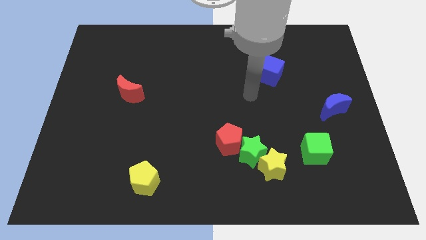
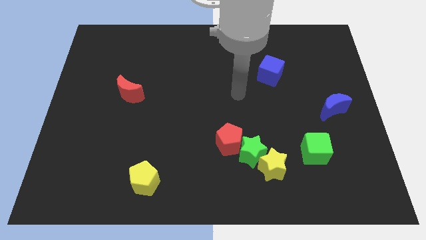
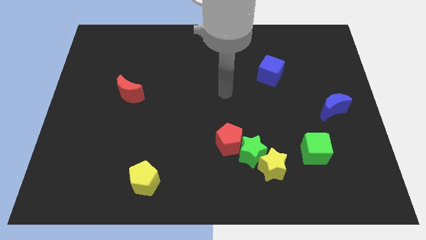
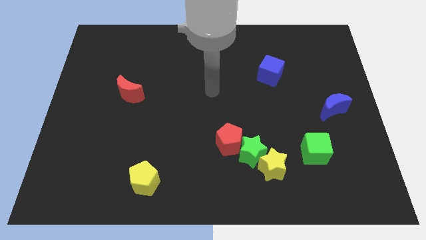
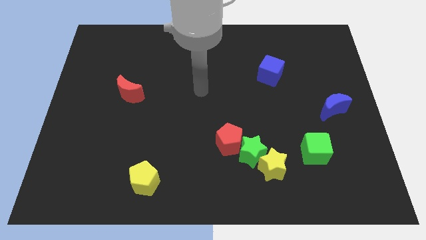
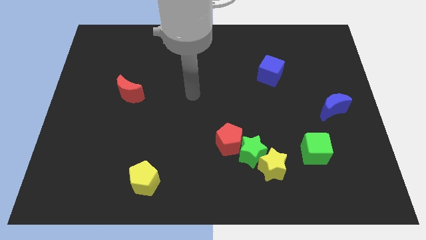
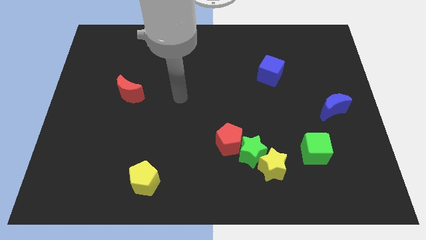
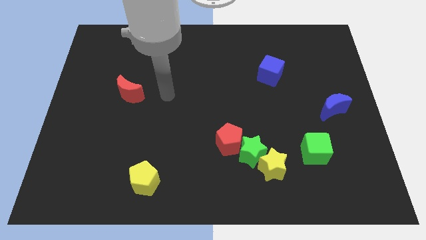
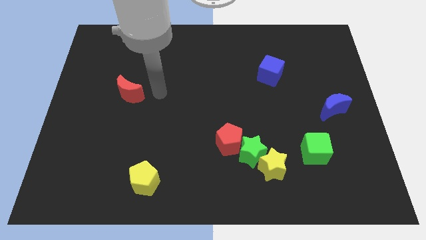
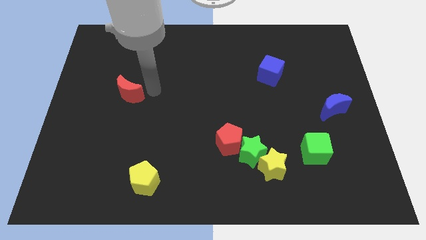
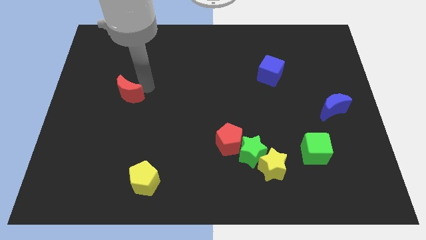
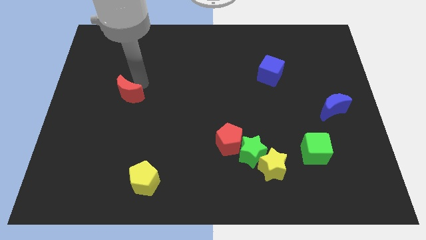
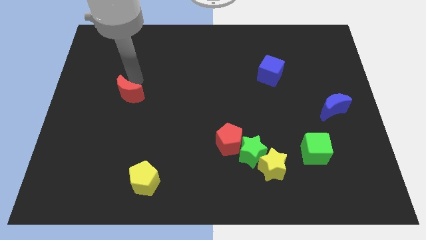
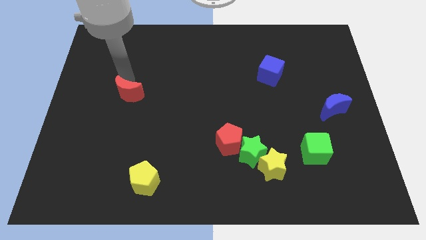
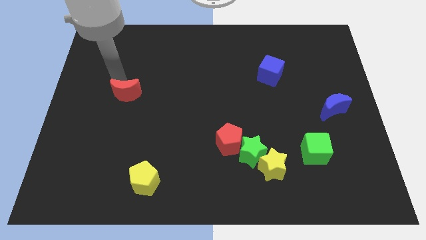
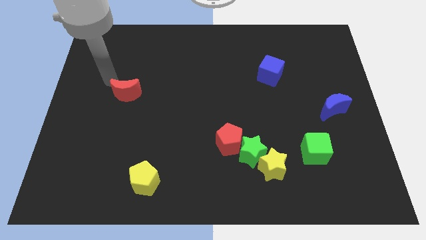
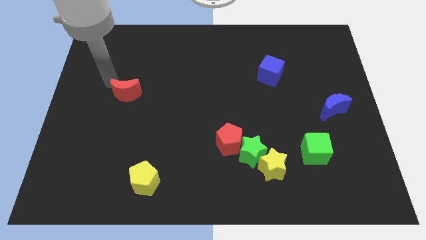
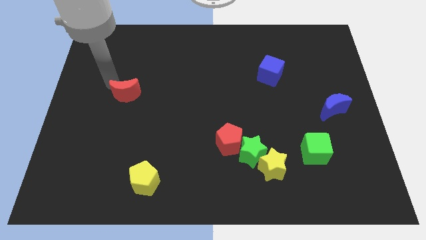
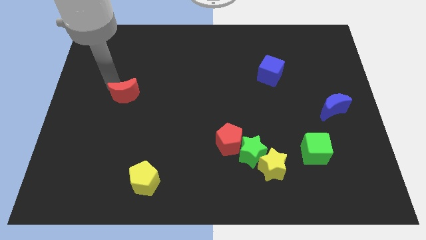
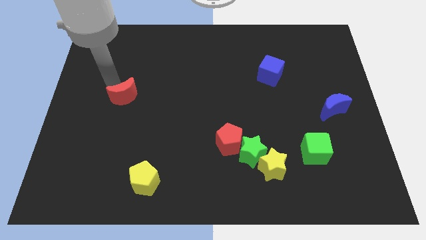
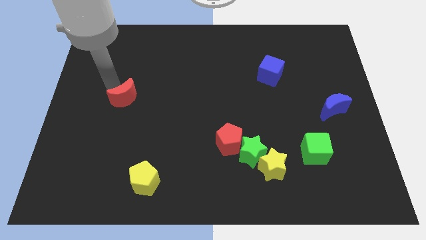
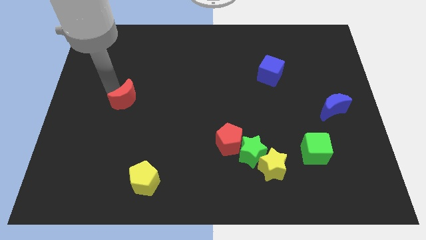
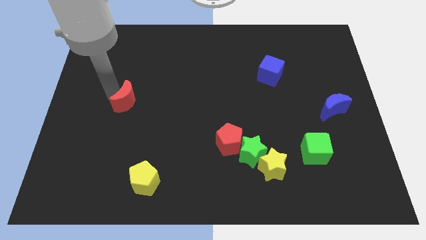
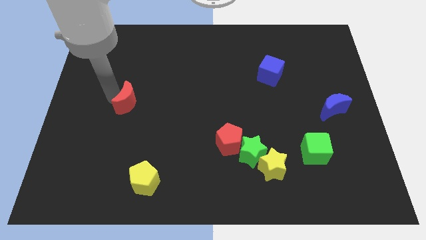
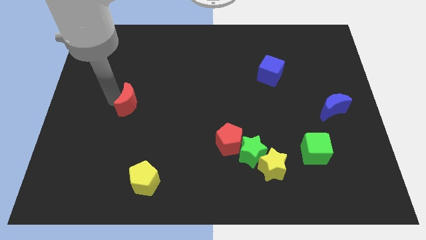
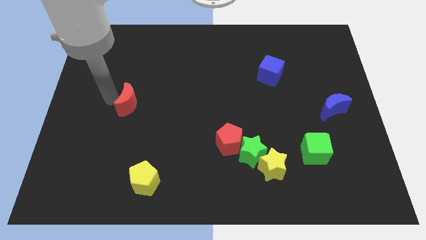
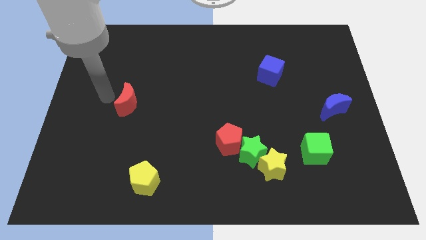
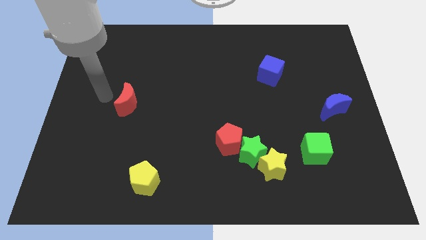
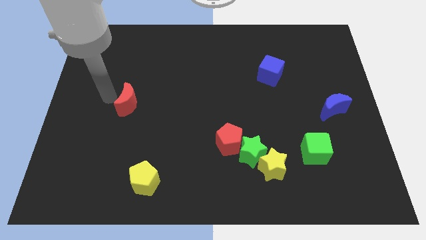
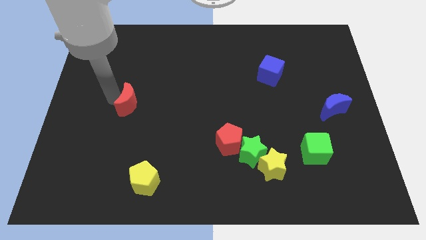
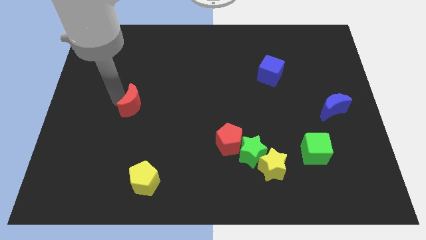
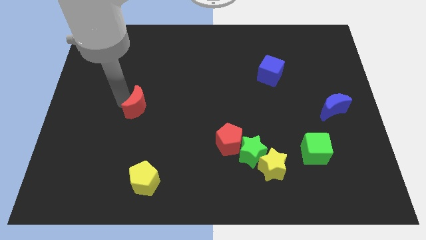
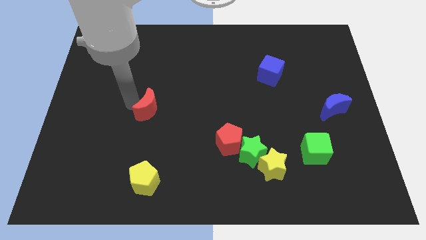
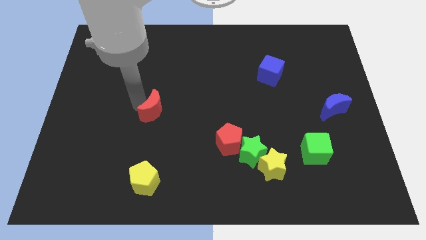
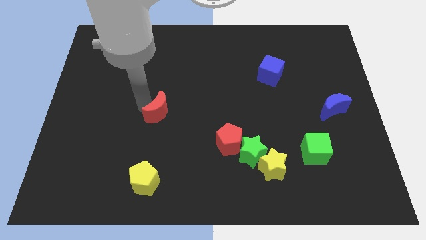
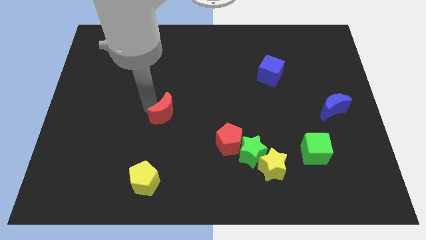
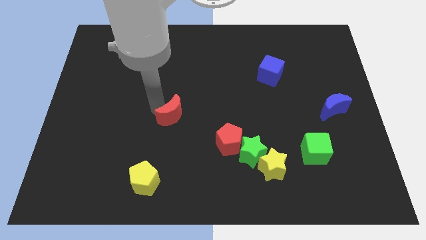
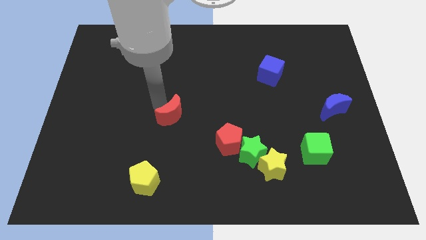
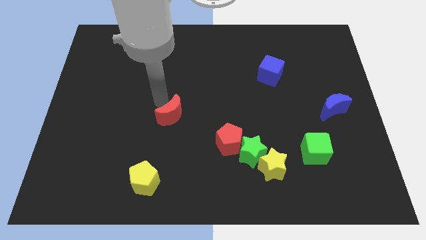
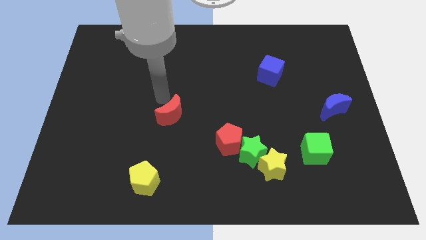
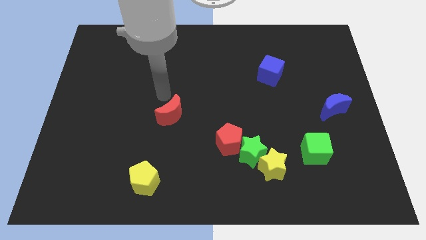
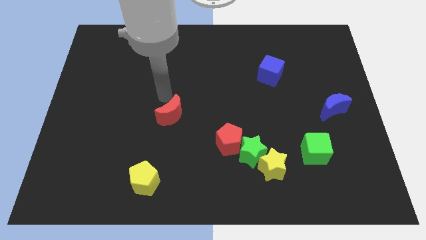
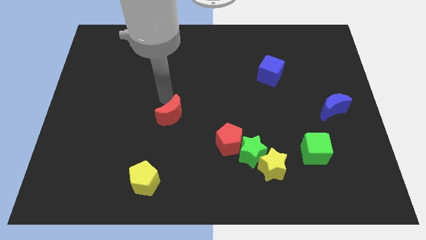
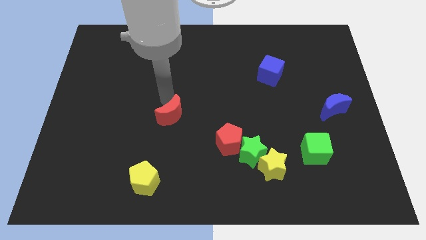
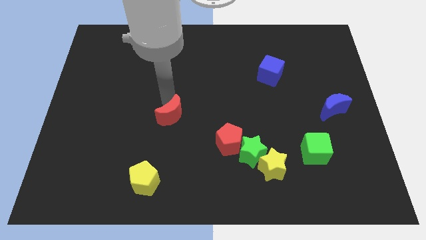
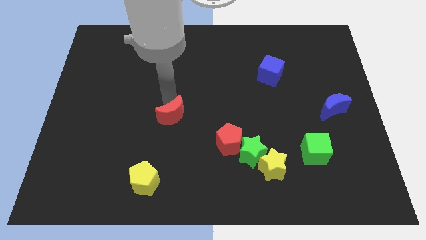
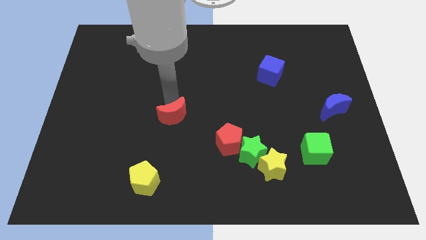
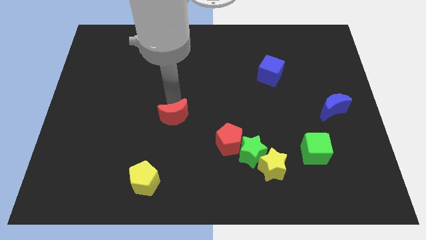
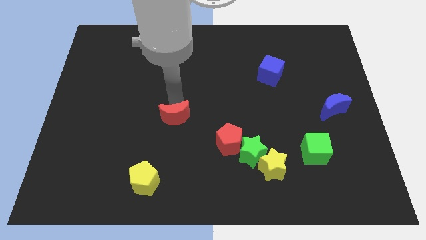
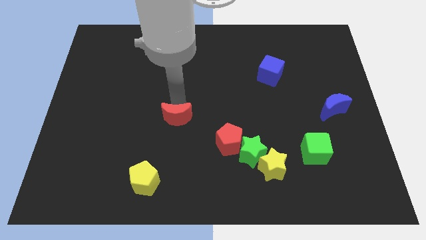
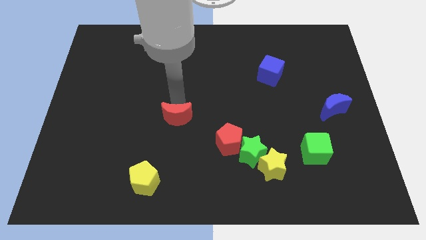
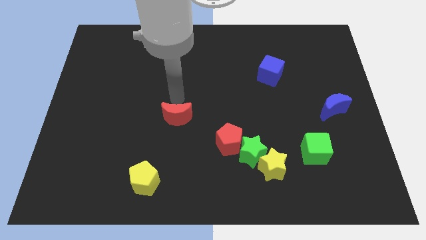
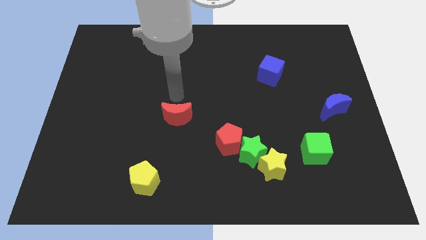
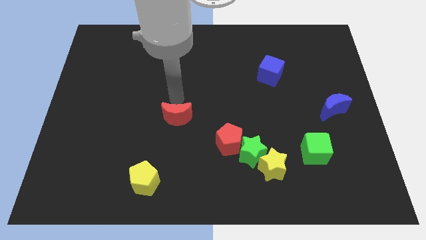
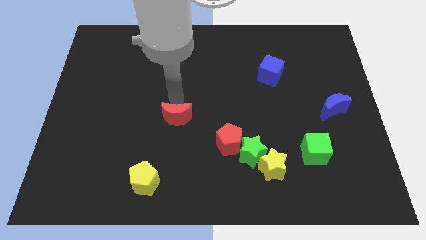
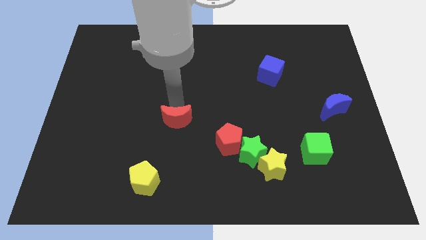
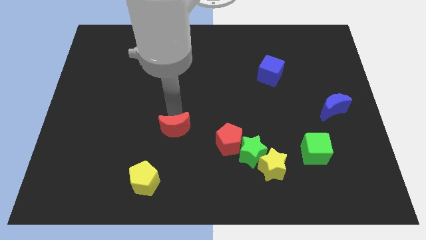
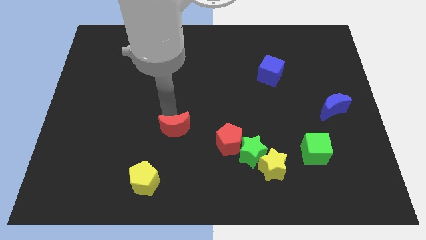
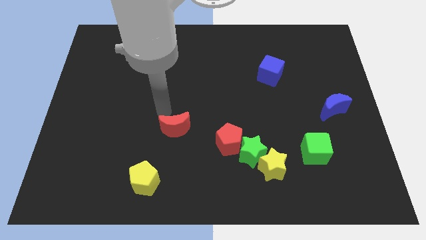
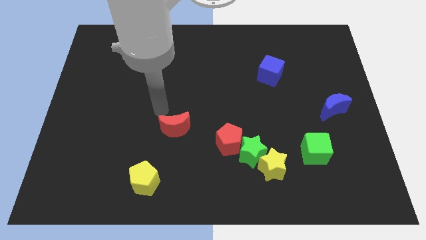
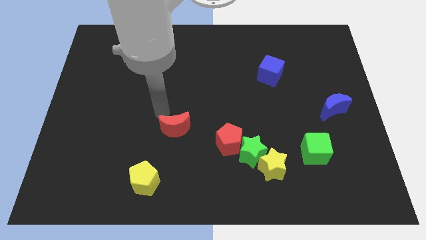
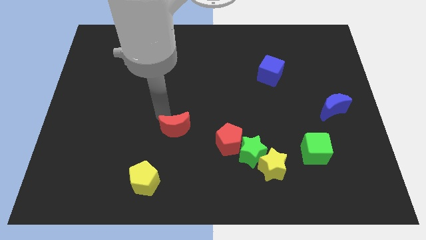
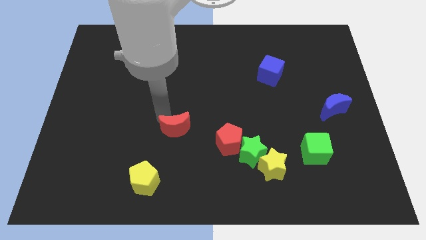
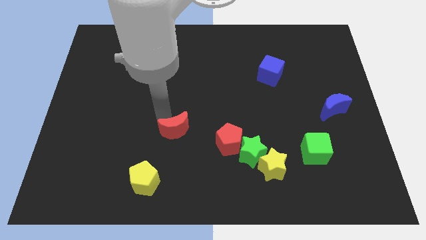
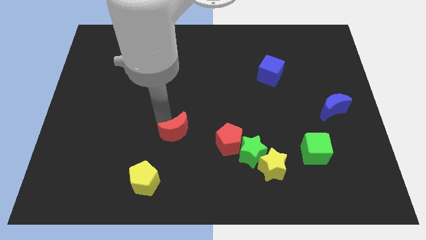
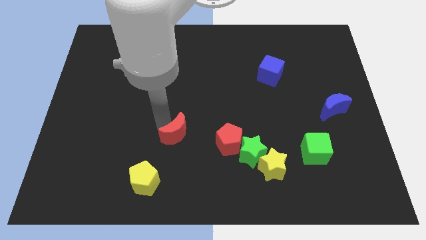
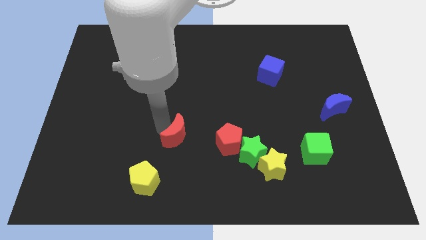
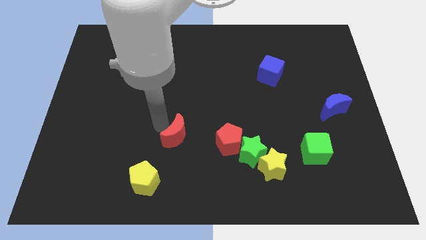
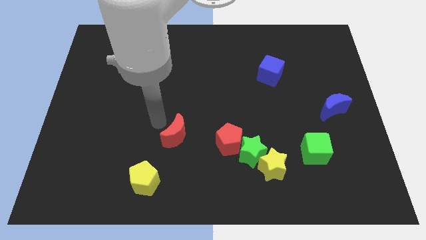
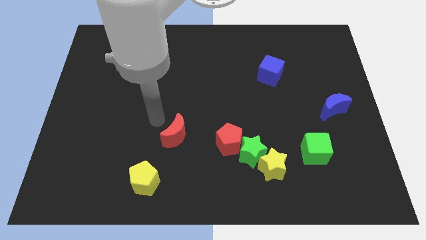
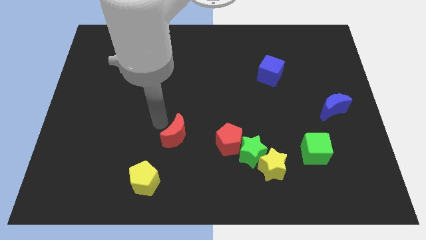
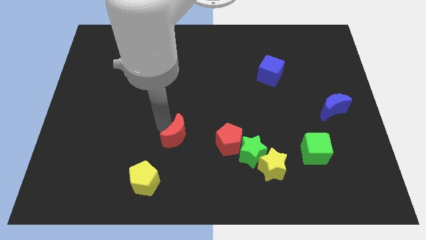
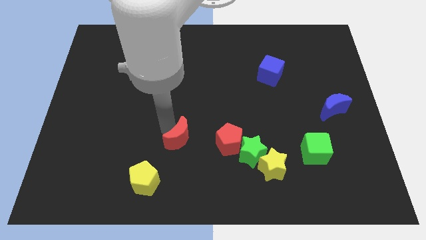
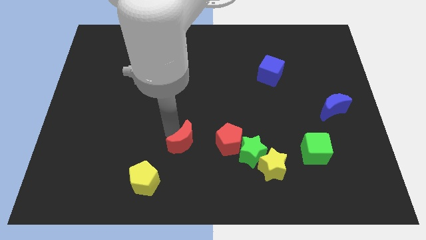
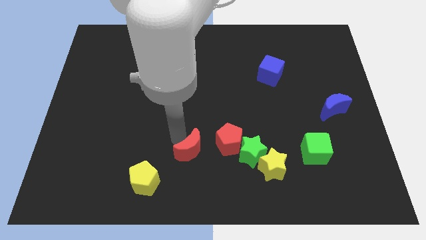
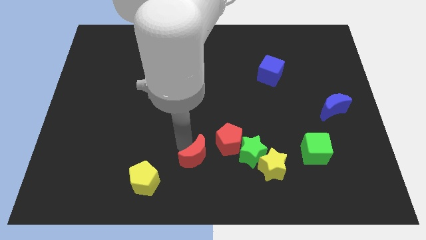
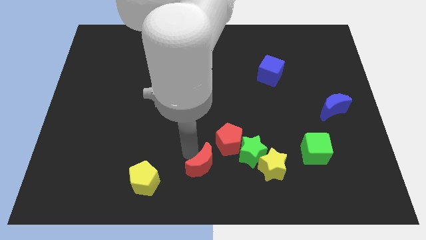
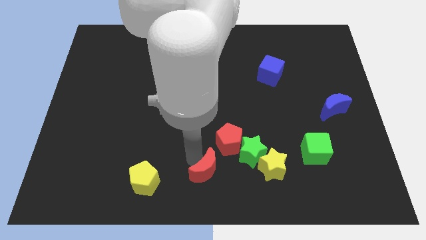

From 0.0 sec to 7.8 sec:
slide the red moon to the bottom left side of the green star
